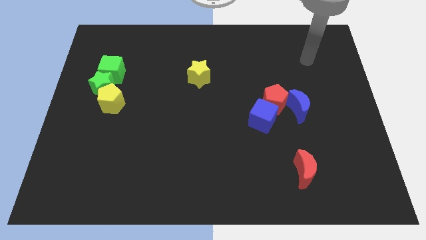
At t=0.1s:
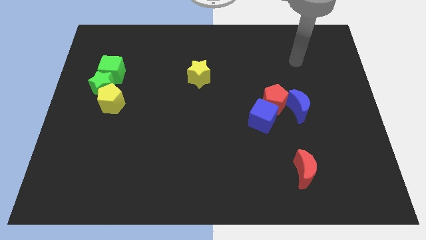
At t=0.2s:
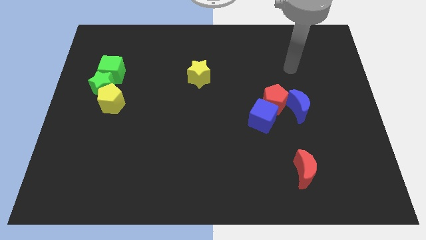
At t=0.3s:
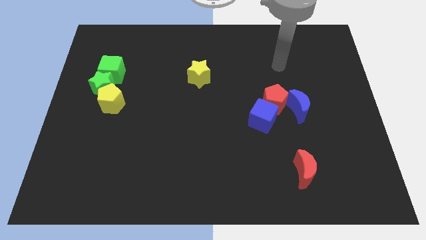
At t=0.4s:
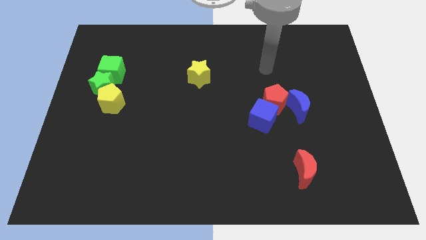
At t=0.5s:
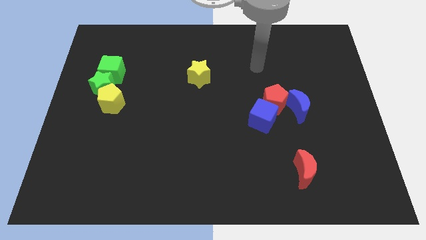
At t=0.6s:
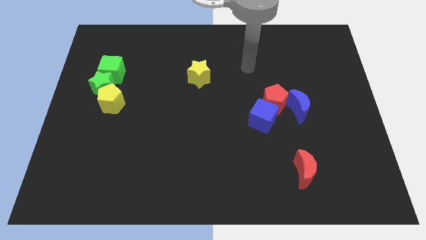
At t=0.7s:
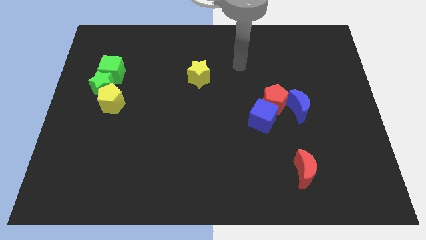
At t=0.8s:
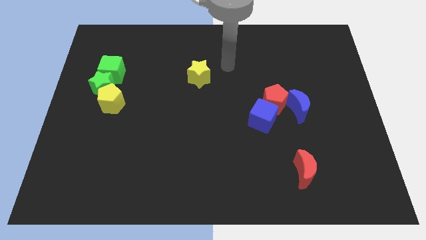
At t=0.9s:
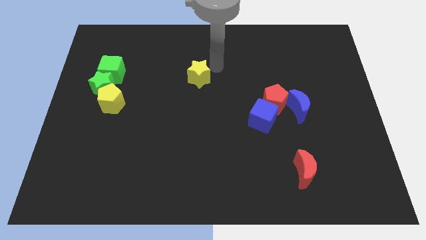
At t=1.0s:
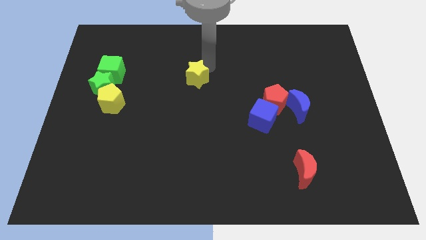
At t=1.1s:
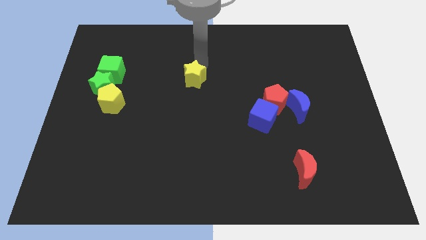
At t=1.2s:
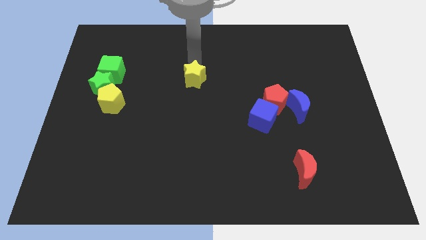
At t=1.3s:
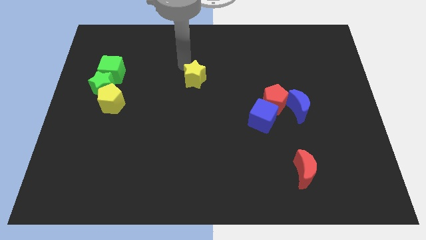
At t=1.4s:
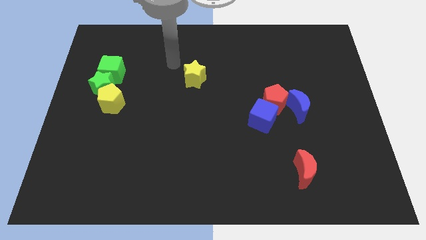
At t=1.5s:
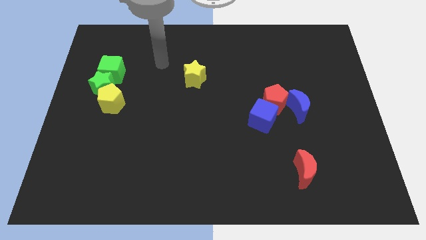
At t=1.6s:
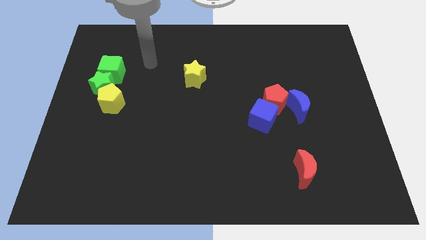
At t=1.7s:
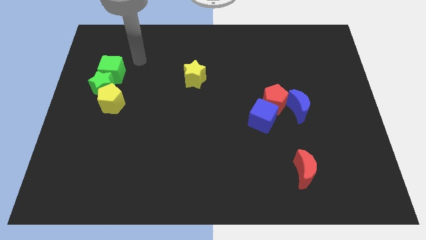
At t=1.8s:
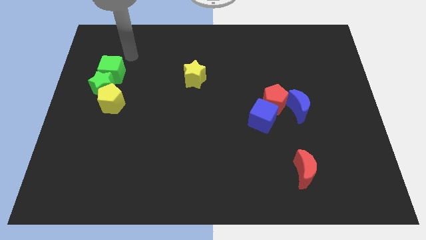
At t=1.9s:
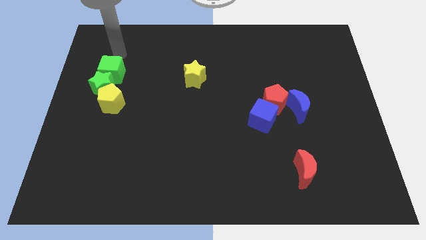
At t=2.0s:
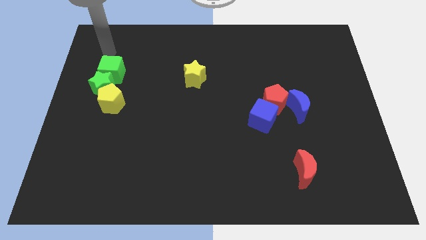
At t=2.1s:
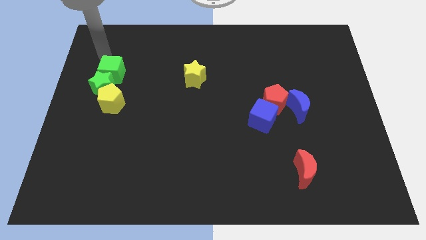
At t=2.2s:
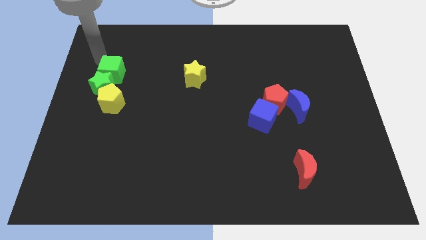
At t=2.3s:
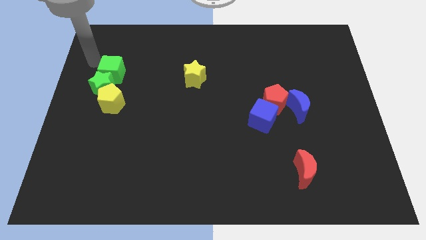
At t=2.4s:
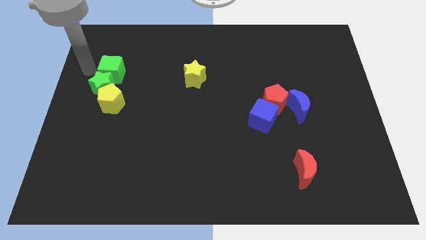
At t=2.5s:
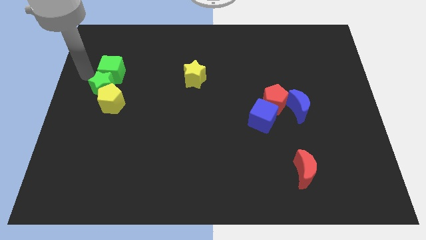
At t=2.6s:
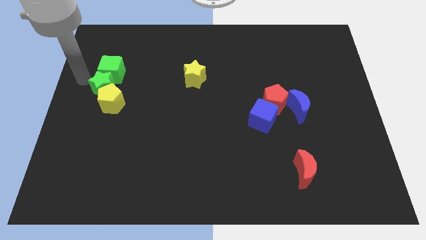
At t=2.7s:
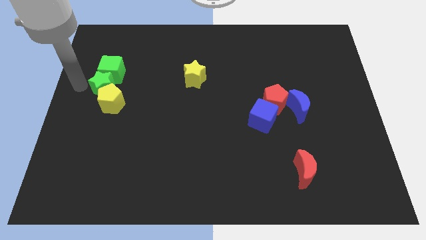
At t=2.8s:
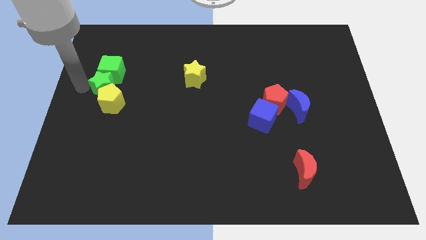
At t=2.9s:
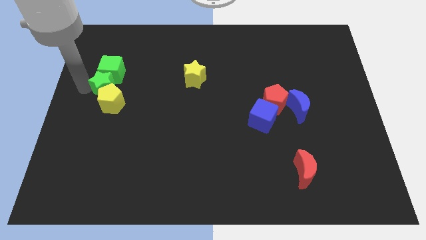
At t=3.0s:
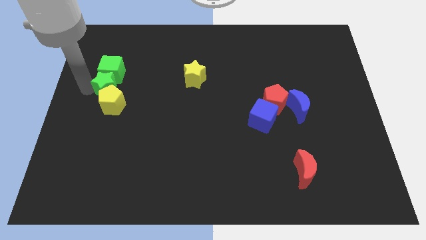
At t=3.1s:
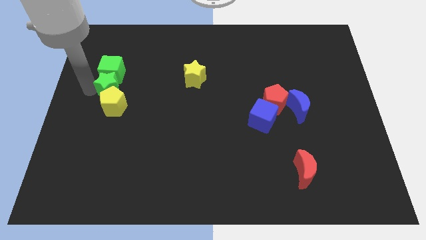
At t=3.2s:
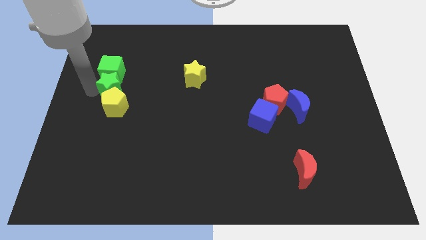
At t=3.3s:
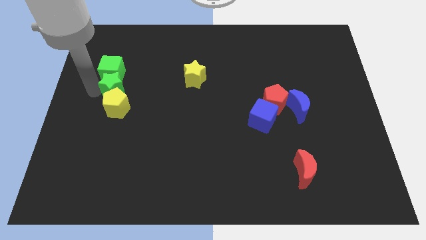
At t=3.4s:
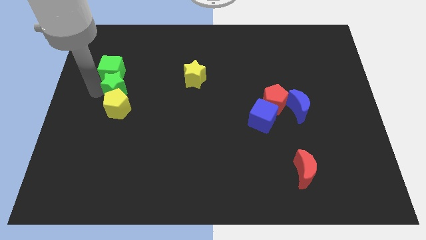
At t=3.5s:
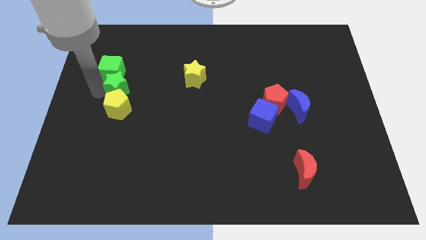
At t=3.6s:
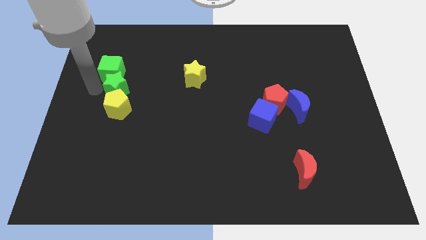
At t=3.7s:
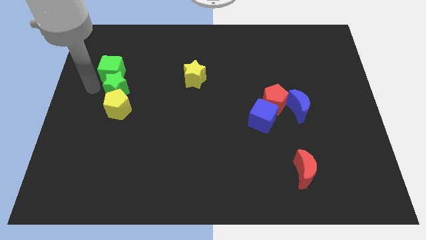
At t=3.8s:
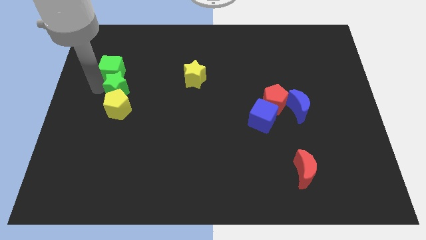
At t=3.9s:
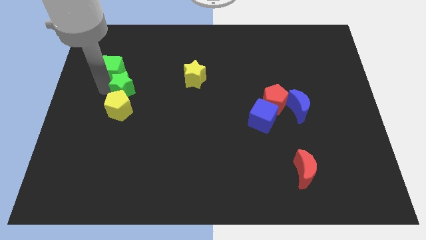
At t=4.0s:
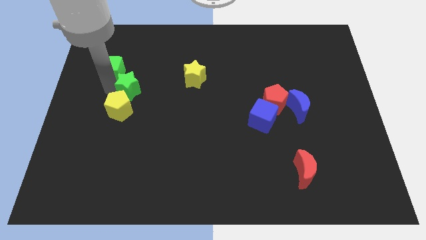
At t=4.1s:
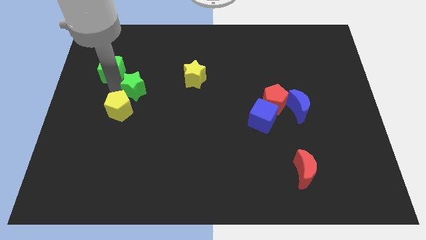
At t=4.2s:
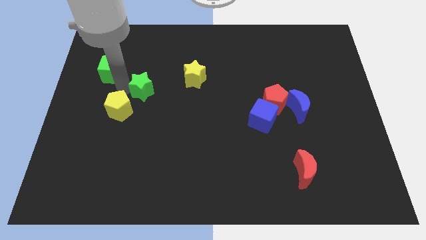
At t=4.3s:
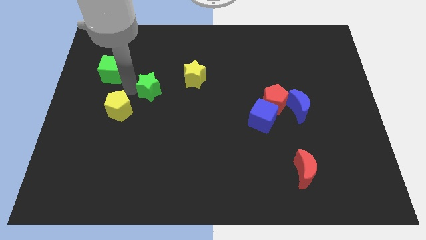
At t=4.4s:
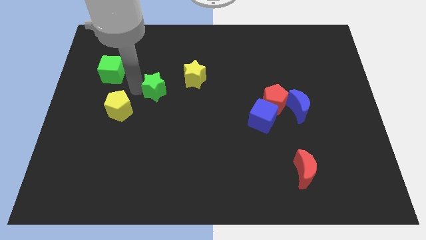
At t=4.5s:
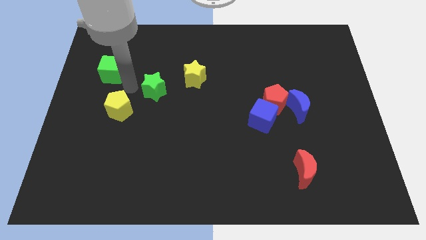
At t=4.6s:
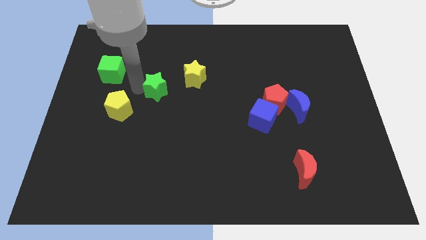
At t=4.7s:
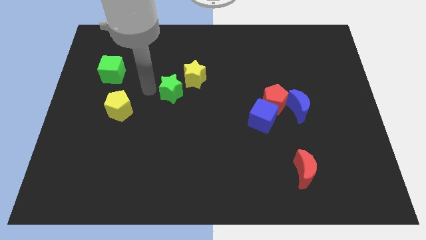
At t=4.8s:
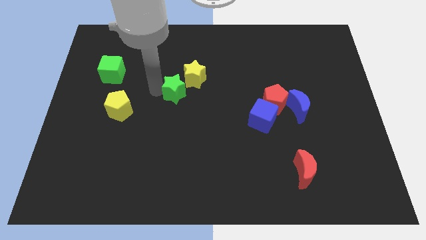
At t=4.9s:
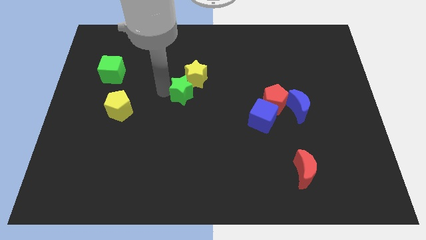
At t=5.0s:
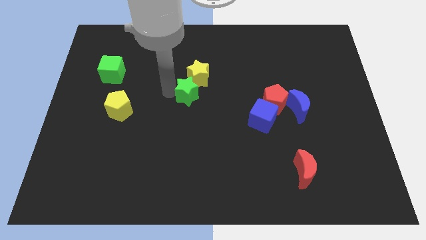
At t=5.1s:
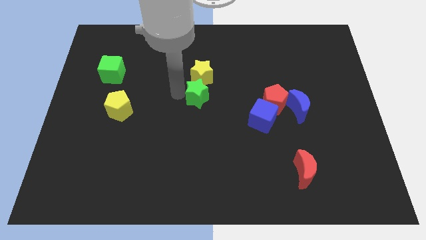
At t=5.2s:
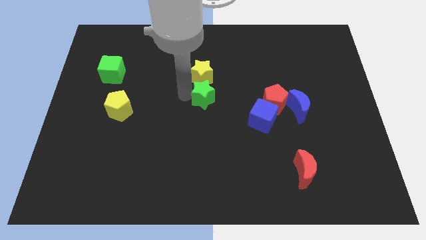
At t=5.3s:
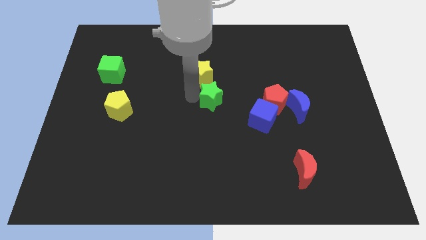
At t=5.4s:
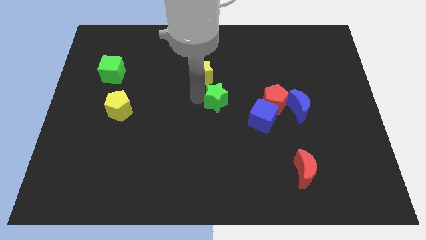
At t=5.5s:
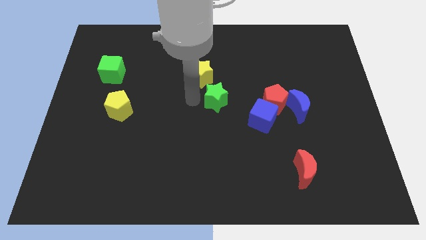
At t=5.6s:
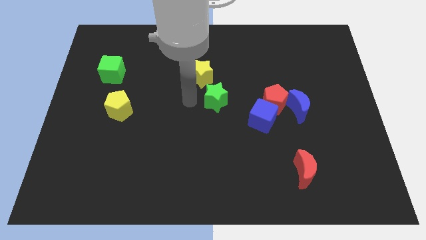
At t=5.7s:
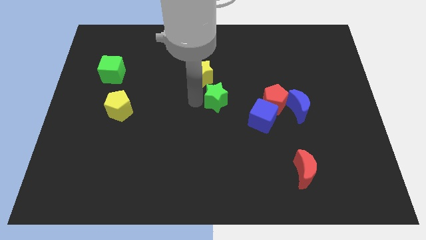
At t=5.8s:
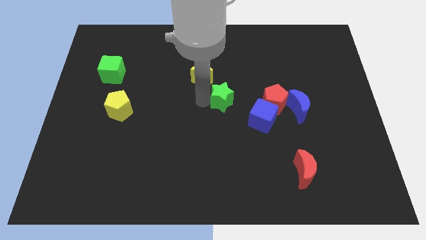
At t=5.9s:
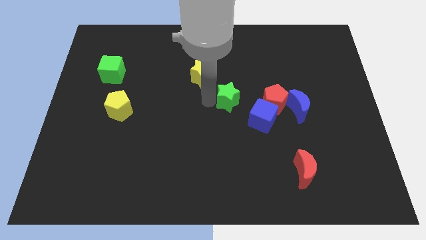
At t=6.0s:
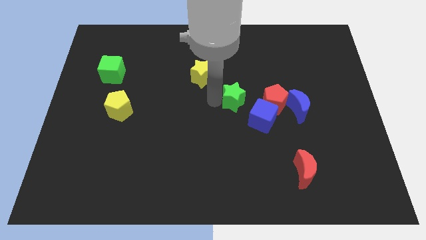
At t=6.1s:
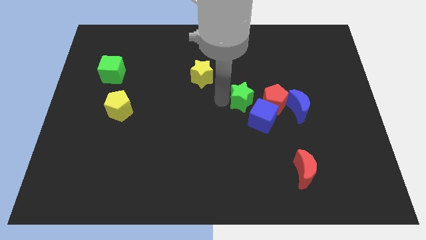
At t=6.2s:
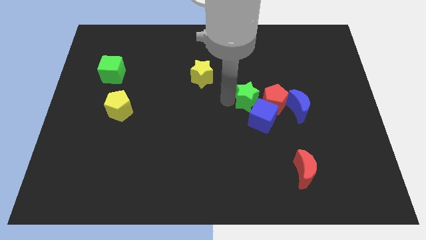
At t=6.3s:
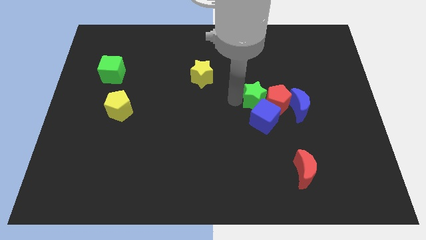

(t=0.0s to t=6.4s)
slide the green star towards the red pentagon

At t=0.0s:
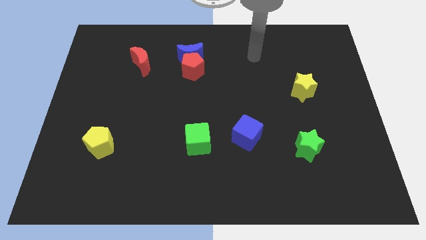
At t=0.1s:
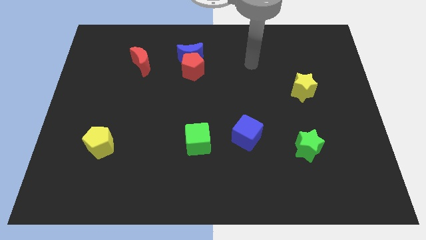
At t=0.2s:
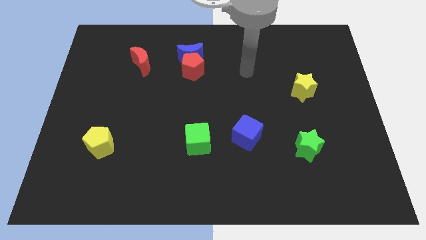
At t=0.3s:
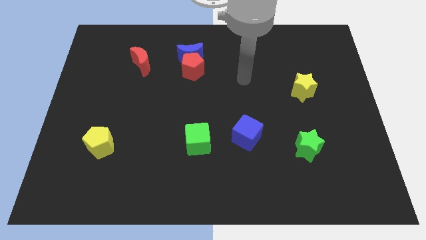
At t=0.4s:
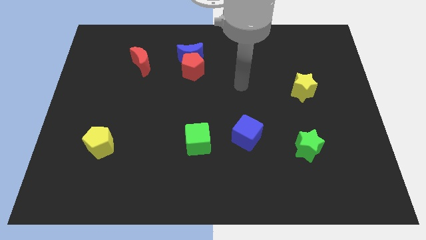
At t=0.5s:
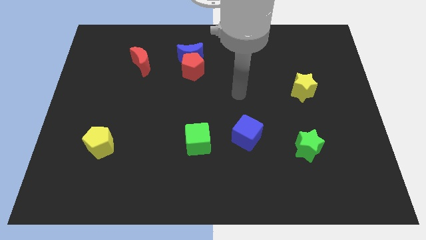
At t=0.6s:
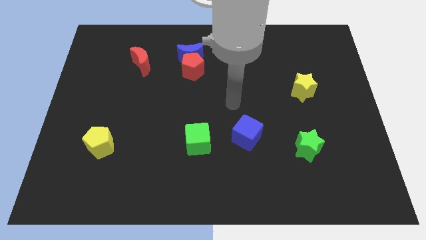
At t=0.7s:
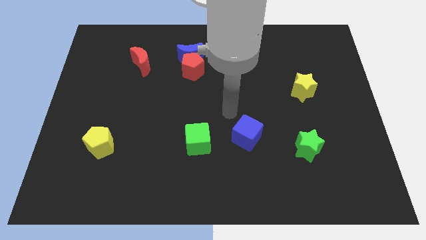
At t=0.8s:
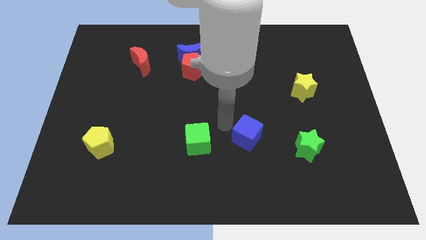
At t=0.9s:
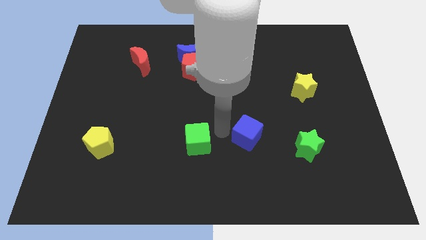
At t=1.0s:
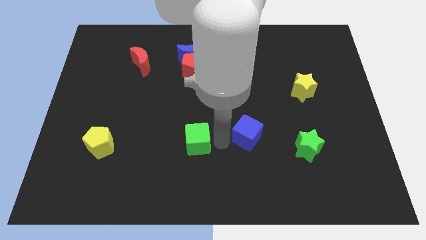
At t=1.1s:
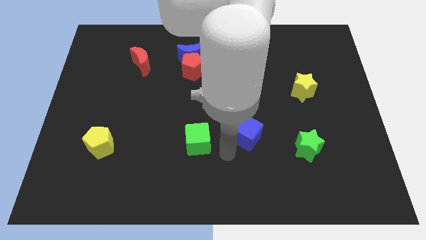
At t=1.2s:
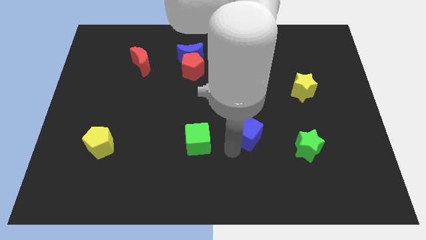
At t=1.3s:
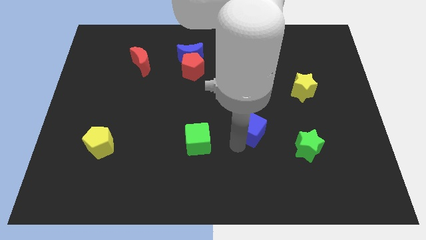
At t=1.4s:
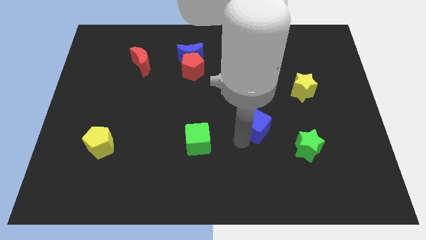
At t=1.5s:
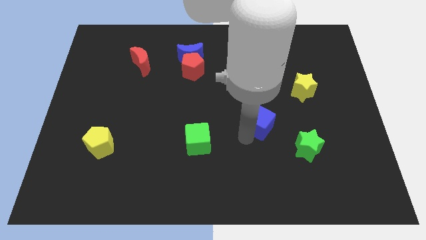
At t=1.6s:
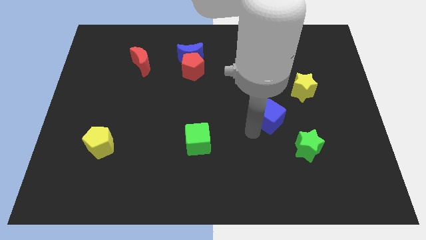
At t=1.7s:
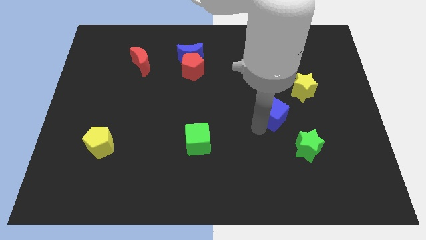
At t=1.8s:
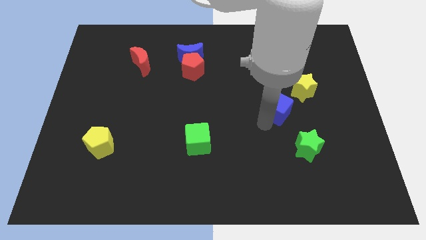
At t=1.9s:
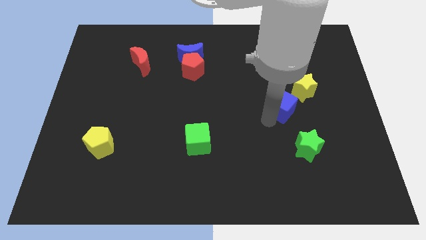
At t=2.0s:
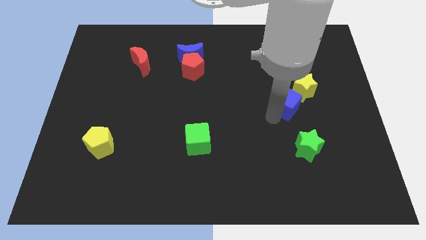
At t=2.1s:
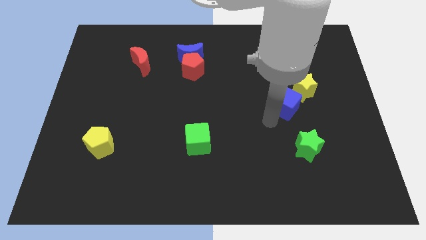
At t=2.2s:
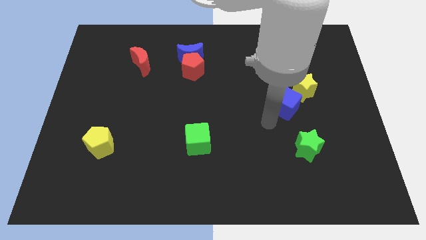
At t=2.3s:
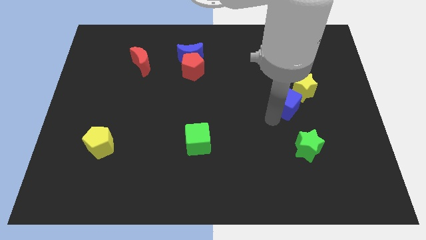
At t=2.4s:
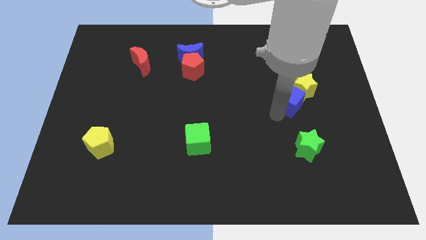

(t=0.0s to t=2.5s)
move the blue cube to the yellow star
